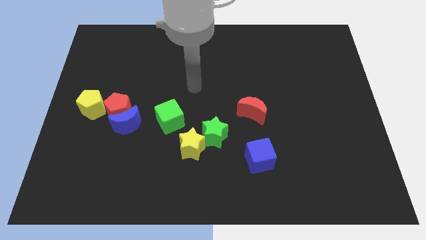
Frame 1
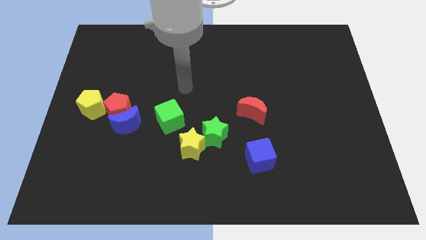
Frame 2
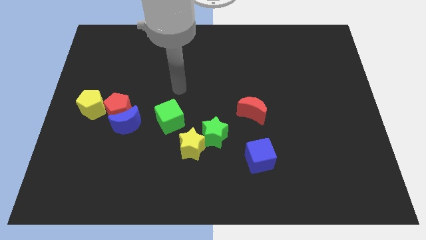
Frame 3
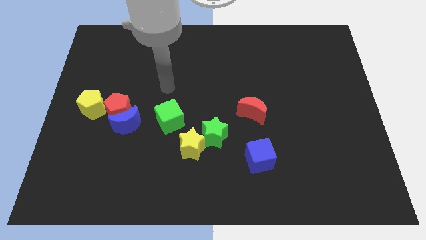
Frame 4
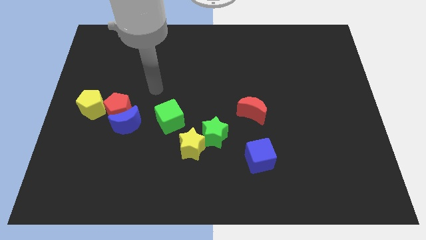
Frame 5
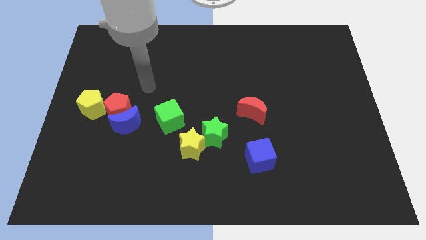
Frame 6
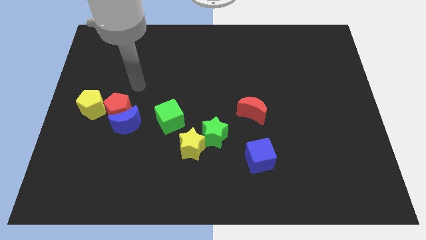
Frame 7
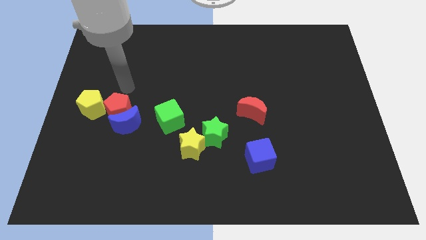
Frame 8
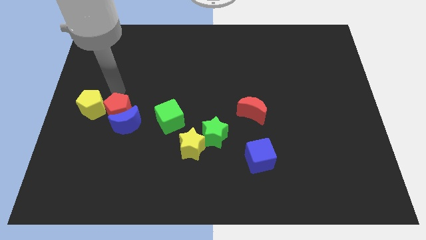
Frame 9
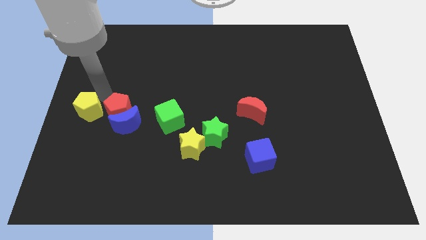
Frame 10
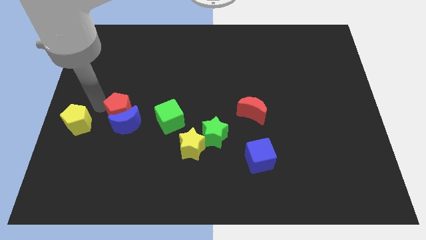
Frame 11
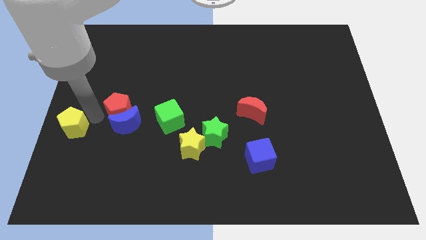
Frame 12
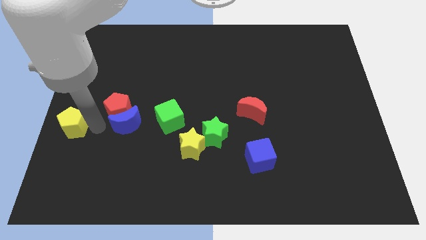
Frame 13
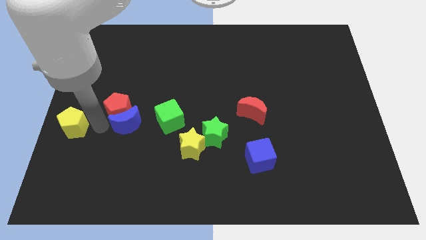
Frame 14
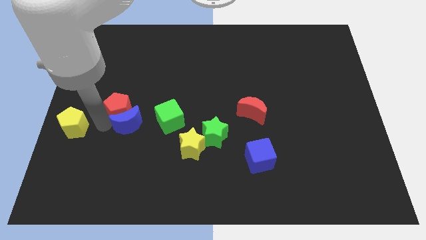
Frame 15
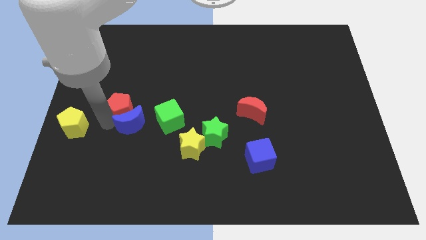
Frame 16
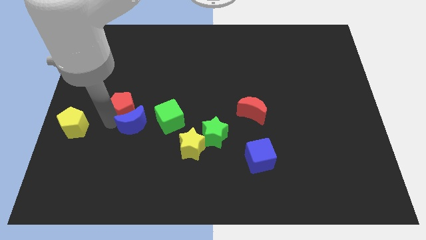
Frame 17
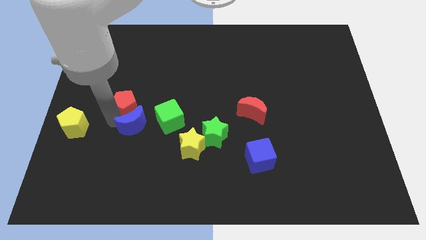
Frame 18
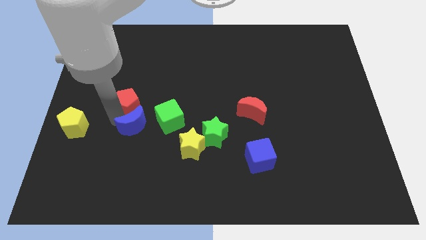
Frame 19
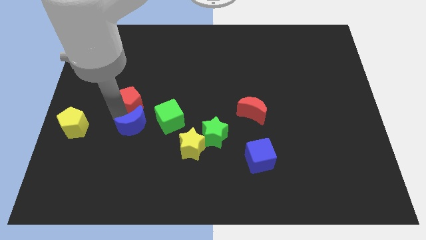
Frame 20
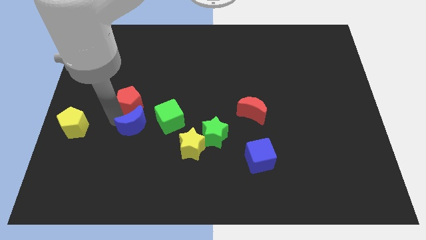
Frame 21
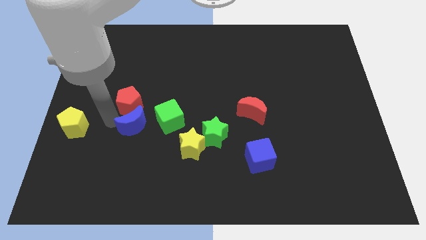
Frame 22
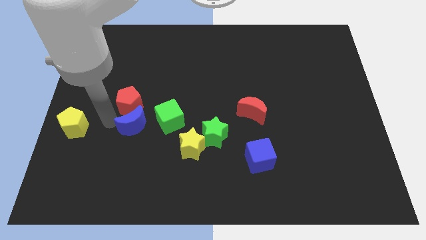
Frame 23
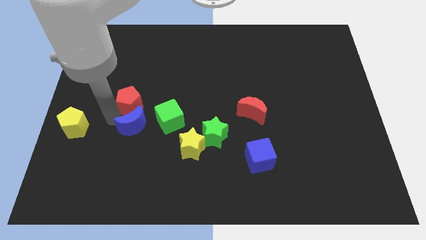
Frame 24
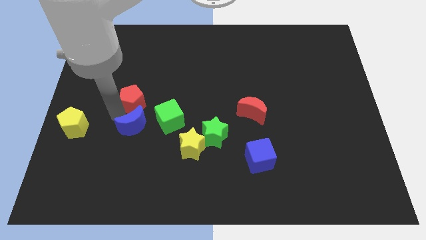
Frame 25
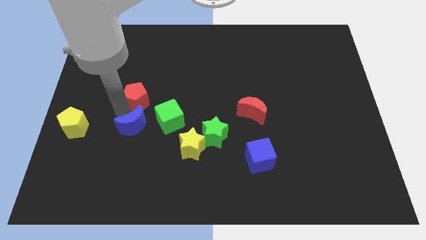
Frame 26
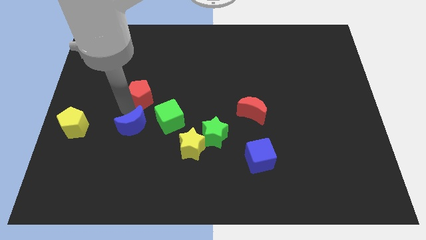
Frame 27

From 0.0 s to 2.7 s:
move the red pentagon away from the blue moon and yellow pentagon

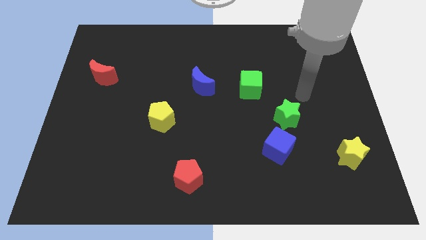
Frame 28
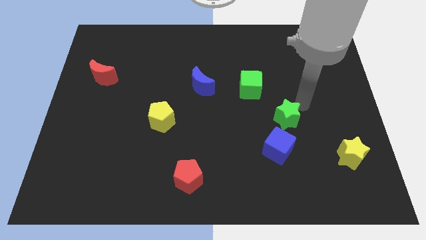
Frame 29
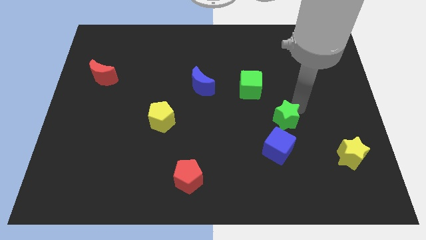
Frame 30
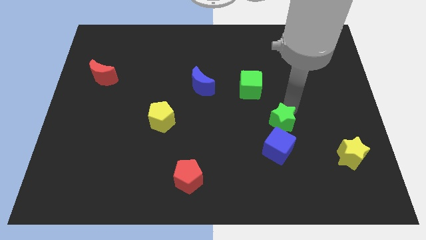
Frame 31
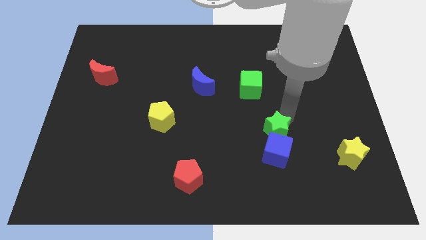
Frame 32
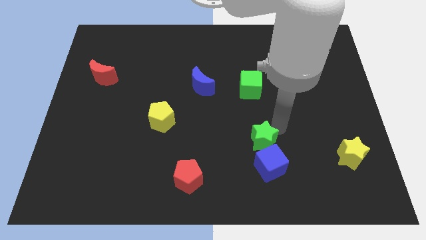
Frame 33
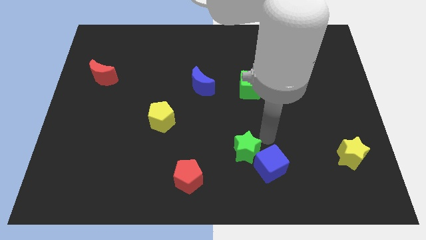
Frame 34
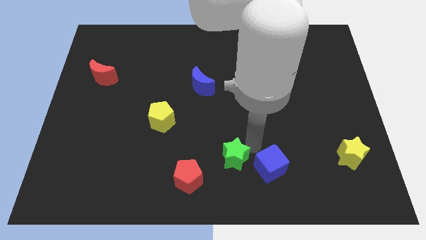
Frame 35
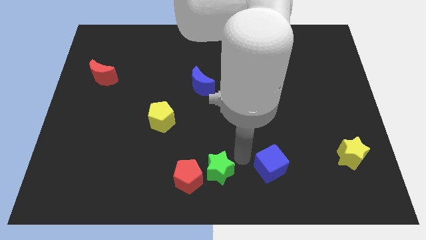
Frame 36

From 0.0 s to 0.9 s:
separate the blue cube from the green star

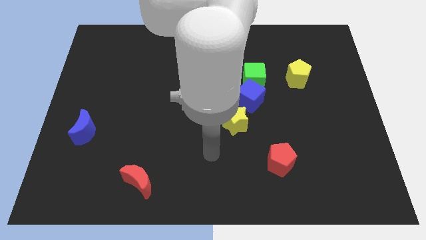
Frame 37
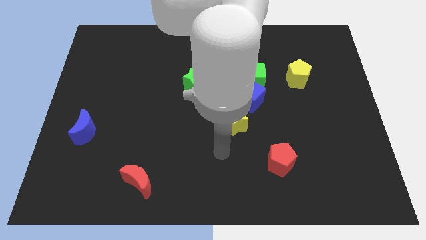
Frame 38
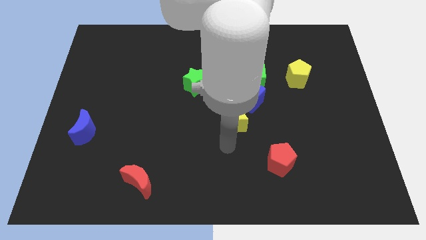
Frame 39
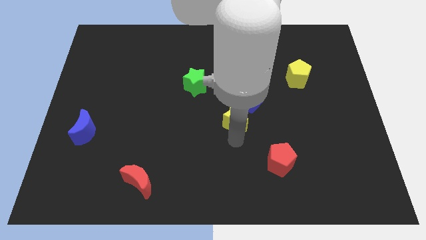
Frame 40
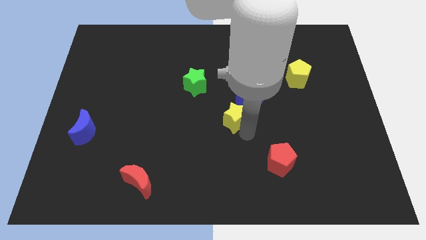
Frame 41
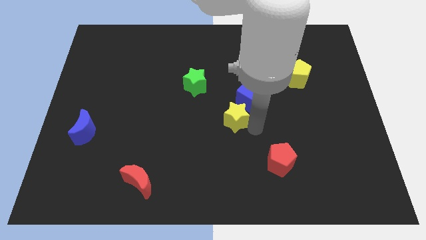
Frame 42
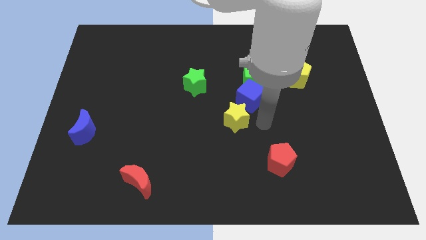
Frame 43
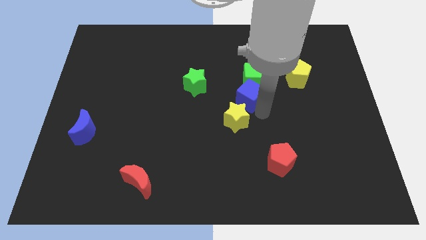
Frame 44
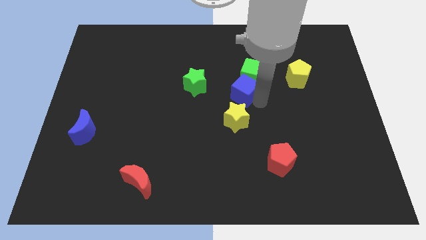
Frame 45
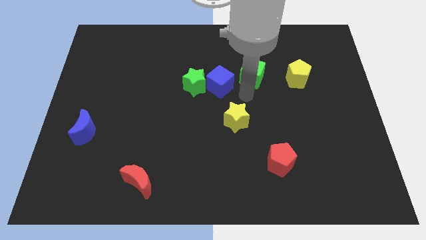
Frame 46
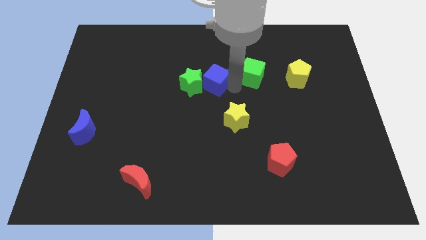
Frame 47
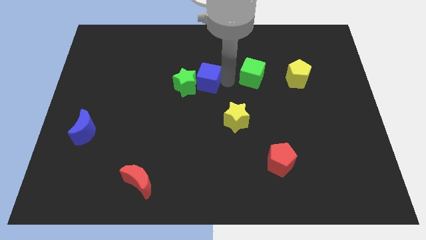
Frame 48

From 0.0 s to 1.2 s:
separate the green cube from the blue cube

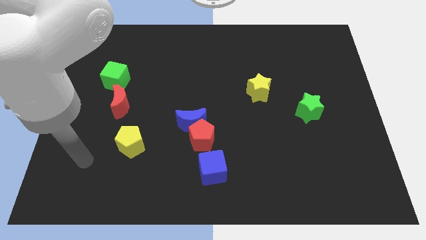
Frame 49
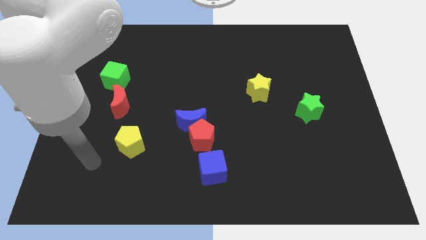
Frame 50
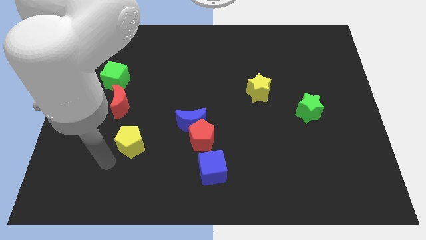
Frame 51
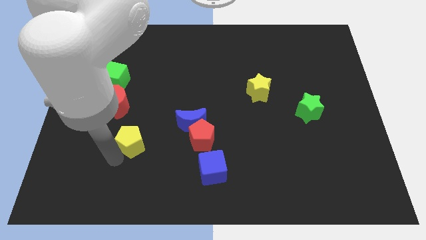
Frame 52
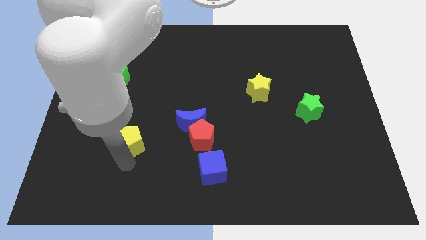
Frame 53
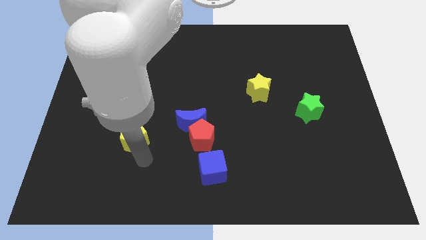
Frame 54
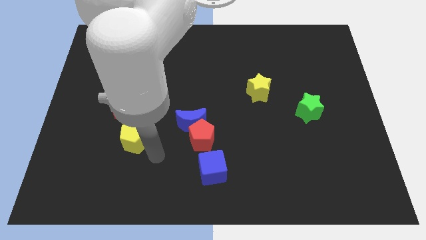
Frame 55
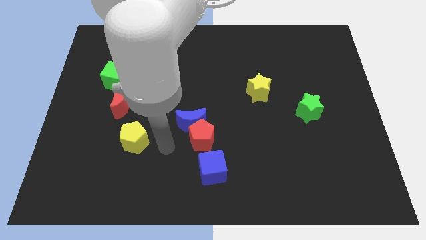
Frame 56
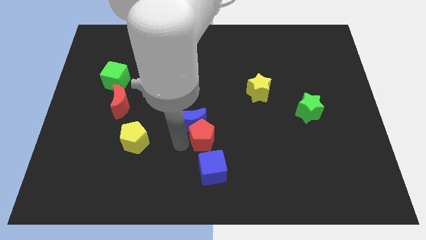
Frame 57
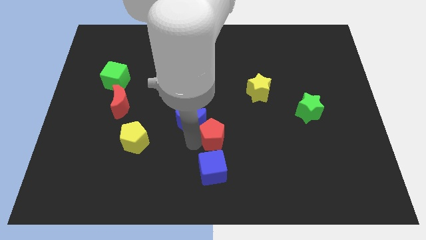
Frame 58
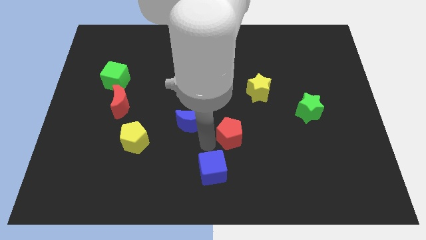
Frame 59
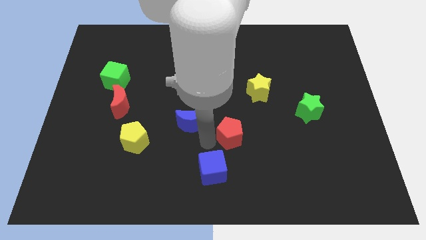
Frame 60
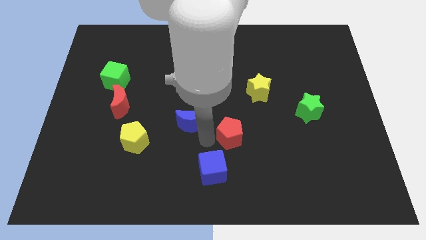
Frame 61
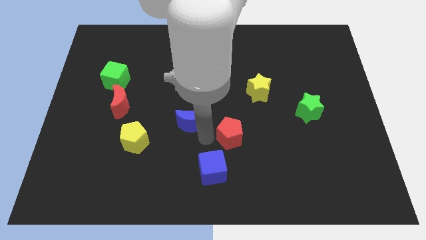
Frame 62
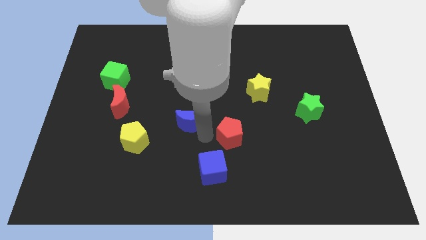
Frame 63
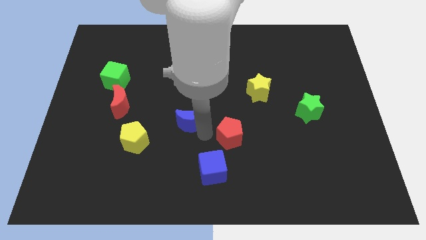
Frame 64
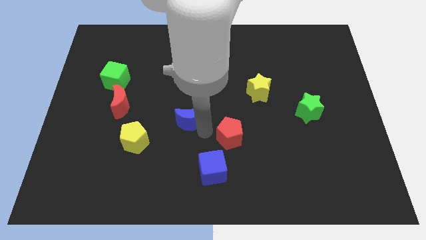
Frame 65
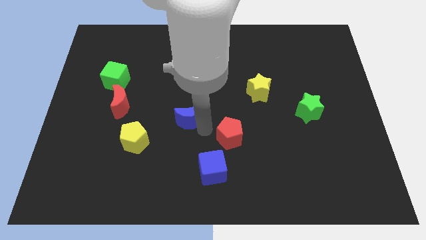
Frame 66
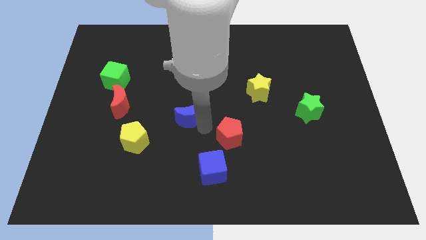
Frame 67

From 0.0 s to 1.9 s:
move the blue moon away from the red pentagon

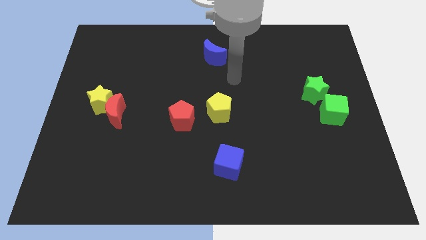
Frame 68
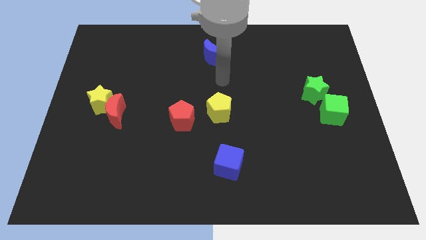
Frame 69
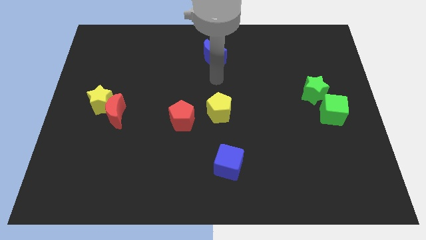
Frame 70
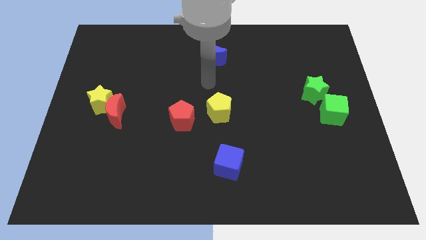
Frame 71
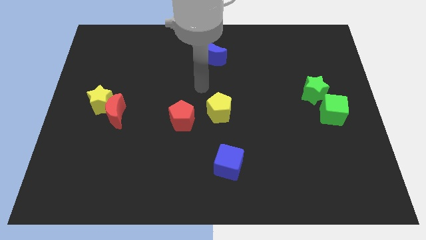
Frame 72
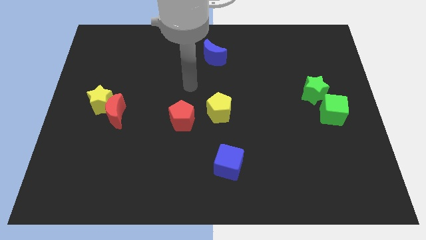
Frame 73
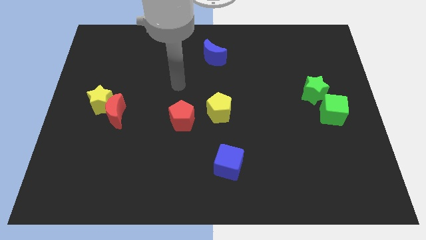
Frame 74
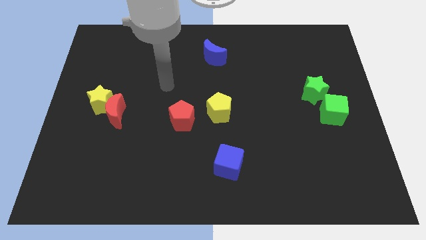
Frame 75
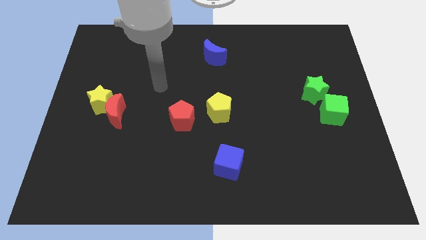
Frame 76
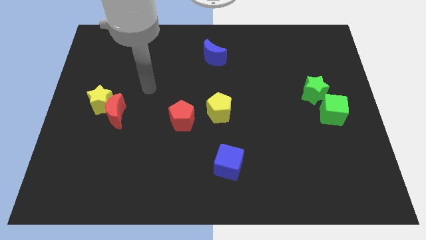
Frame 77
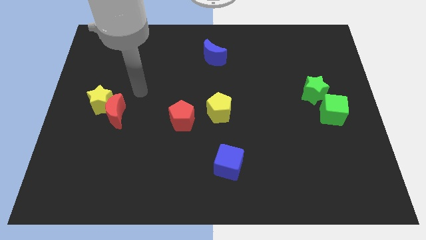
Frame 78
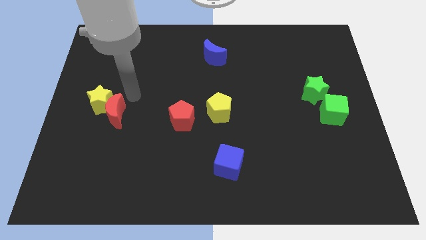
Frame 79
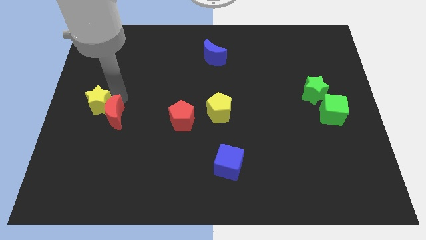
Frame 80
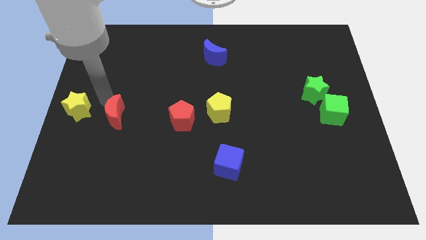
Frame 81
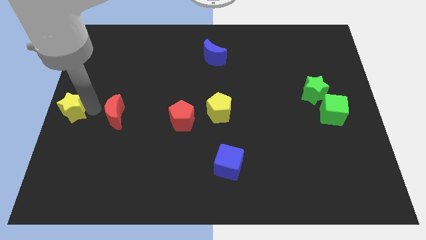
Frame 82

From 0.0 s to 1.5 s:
separate the red moon from the yellow star

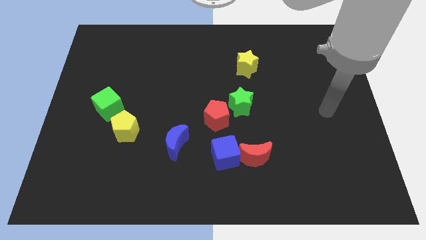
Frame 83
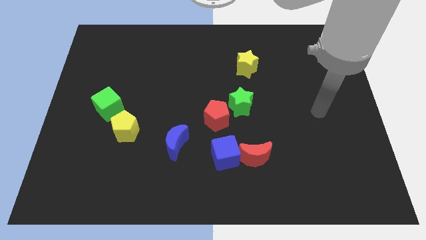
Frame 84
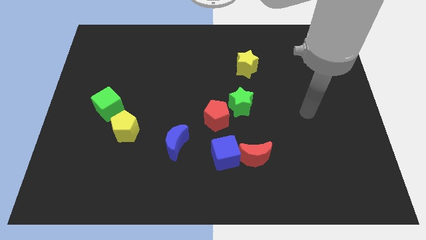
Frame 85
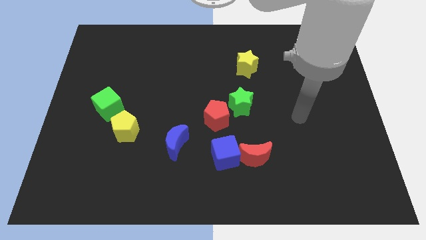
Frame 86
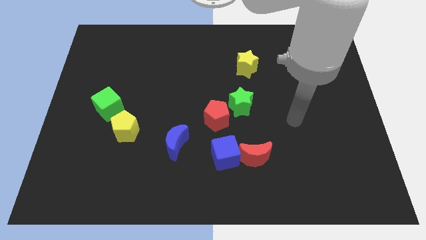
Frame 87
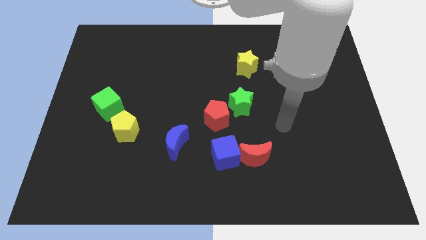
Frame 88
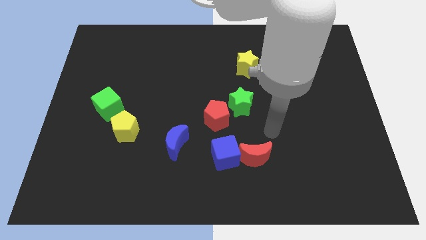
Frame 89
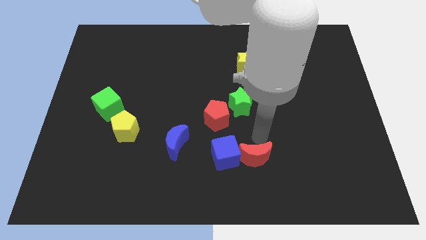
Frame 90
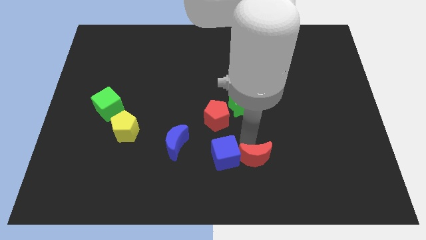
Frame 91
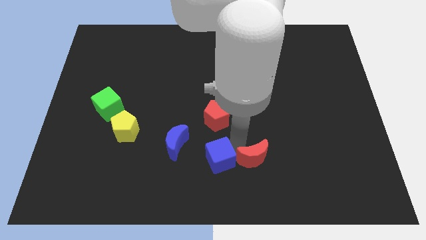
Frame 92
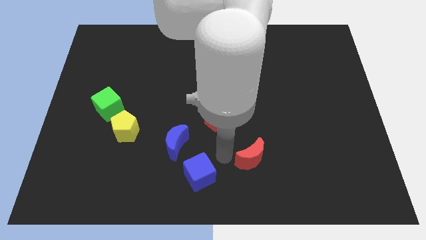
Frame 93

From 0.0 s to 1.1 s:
move the red moon away from the blue cube
